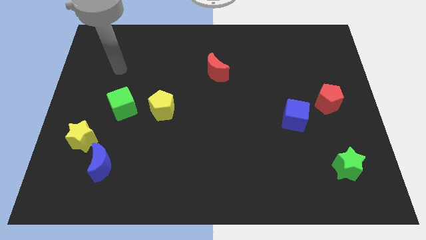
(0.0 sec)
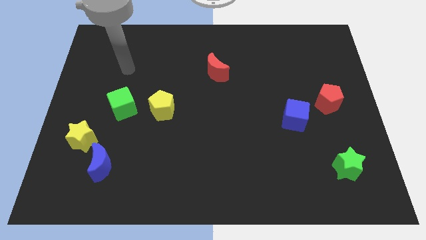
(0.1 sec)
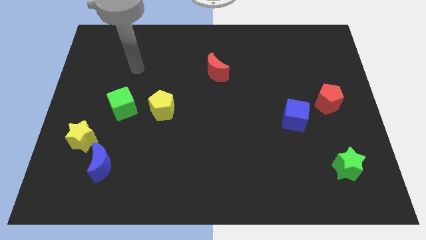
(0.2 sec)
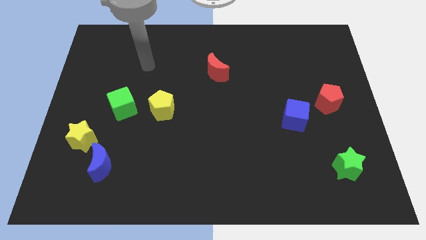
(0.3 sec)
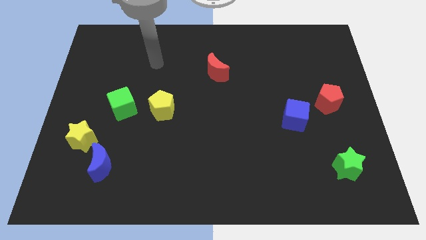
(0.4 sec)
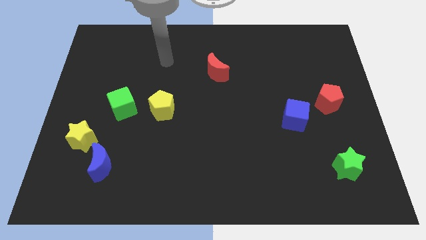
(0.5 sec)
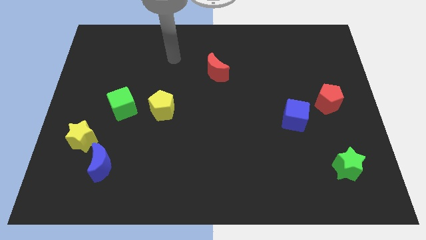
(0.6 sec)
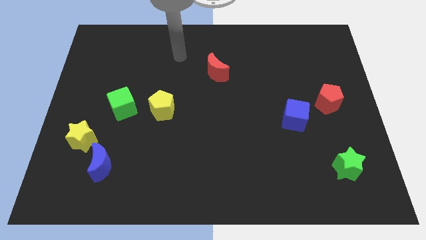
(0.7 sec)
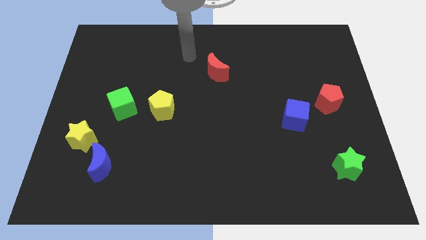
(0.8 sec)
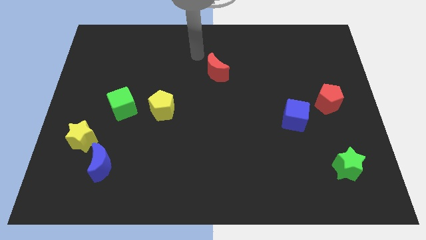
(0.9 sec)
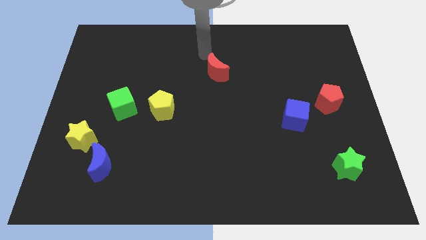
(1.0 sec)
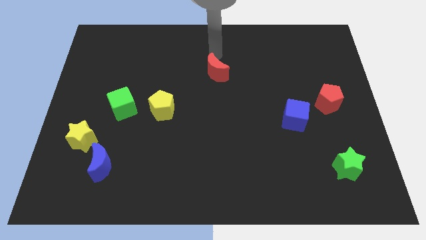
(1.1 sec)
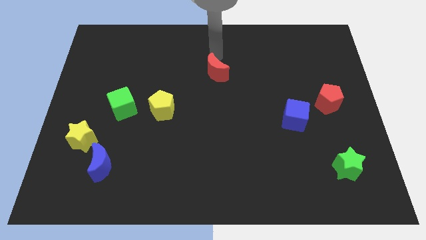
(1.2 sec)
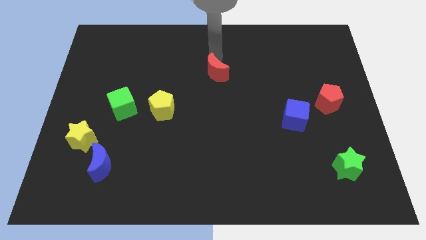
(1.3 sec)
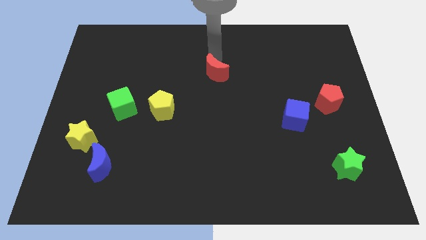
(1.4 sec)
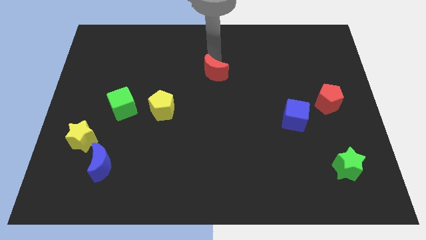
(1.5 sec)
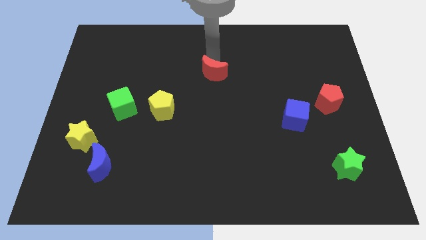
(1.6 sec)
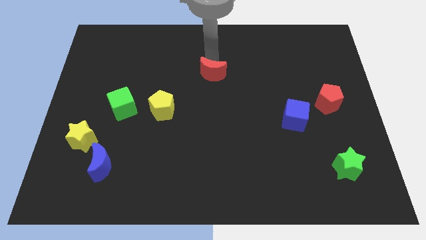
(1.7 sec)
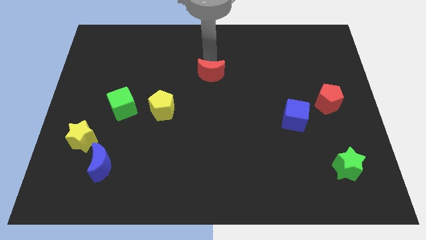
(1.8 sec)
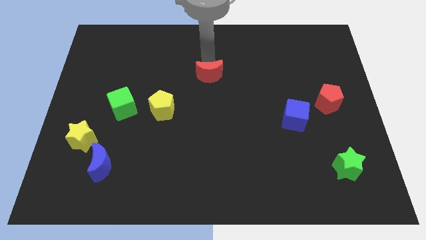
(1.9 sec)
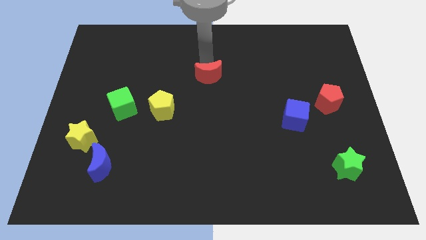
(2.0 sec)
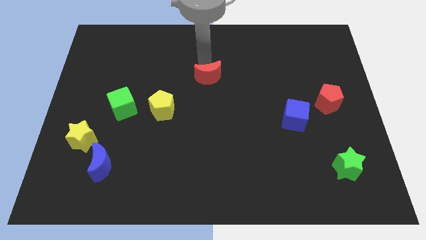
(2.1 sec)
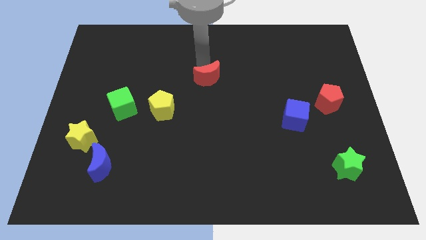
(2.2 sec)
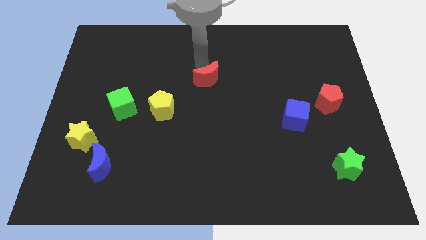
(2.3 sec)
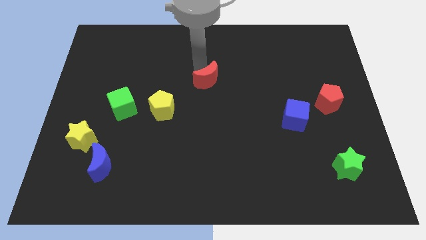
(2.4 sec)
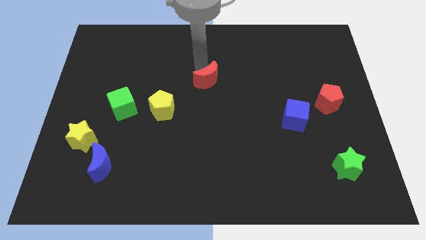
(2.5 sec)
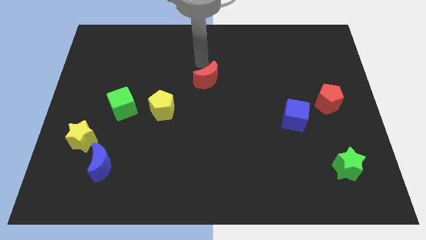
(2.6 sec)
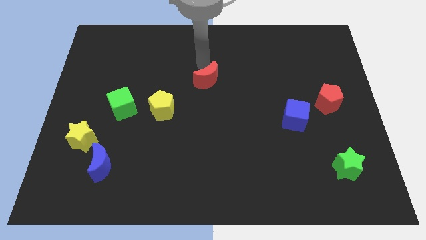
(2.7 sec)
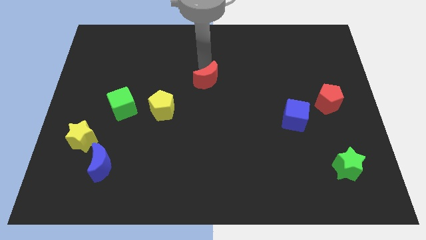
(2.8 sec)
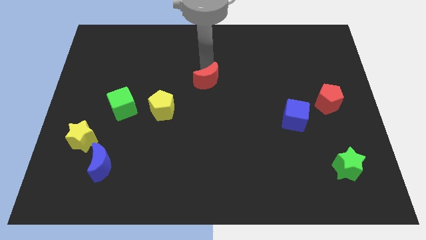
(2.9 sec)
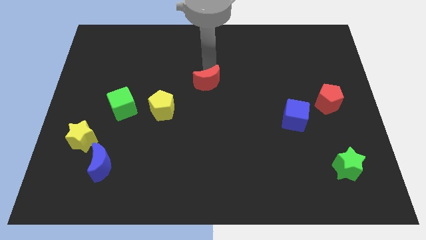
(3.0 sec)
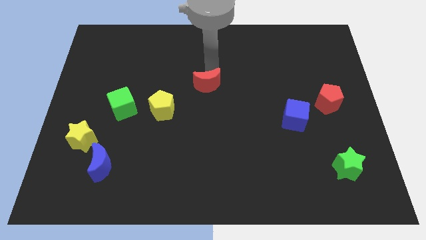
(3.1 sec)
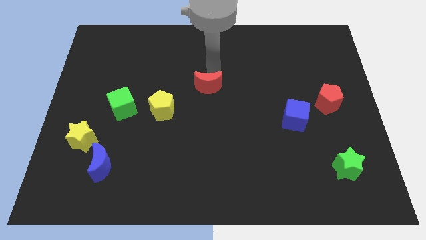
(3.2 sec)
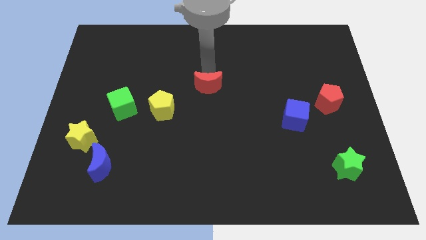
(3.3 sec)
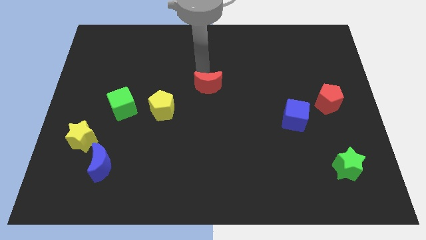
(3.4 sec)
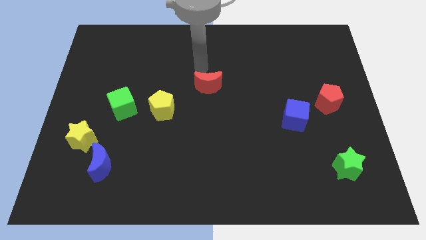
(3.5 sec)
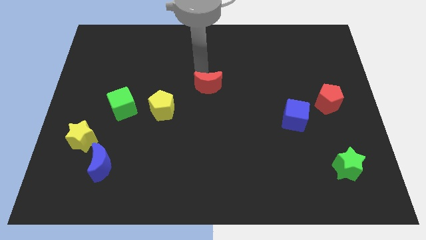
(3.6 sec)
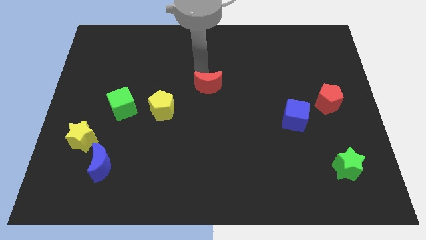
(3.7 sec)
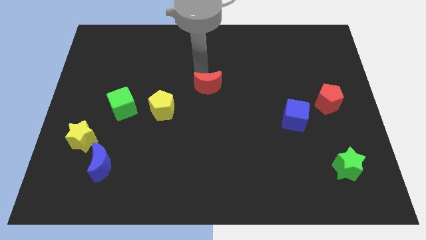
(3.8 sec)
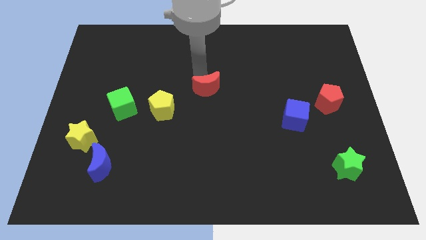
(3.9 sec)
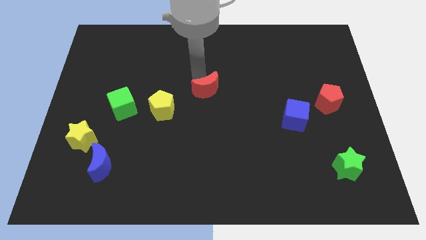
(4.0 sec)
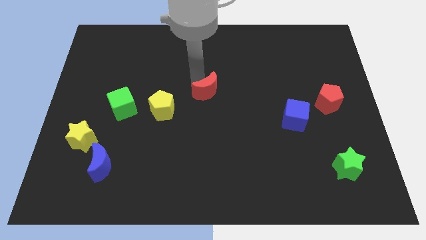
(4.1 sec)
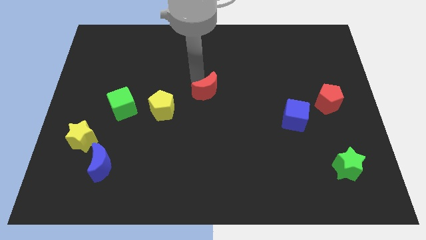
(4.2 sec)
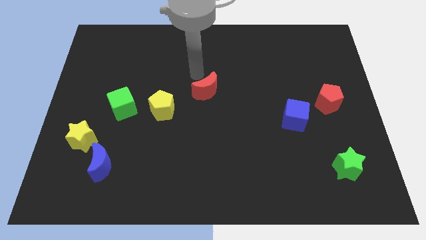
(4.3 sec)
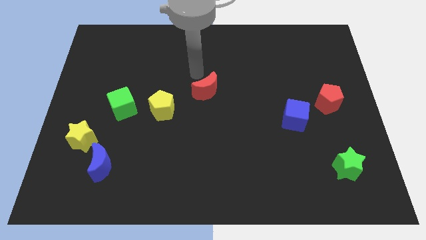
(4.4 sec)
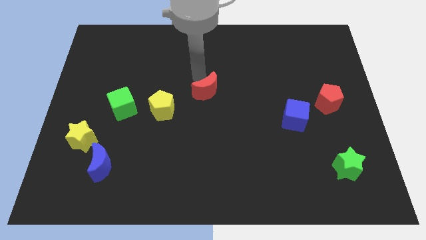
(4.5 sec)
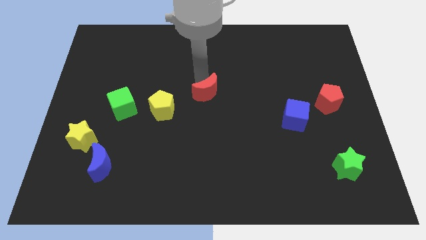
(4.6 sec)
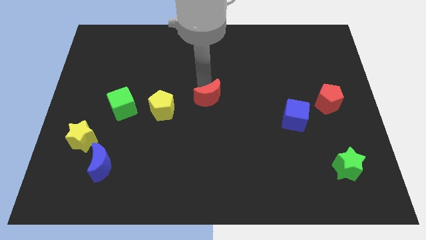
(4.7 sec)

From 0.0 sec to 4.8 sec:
move the red moon downwards a little bit

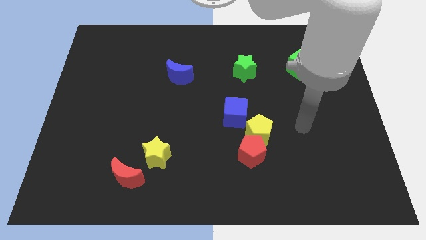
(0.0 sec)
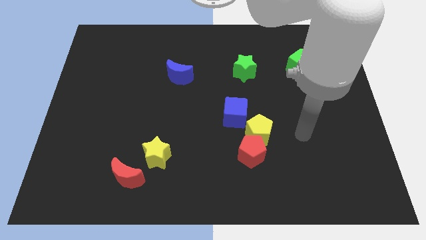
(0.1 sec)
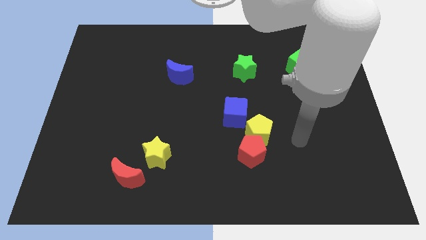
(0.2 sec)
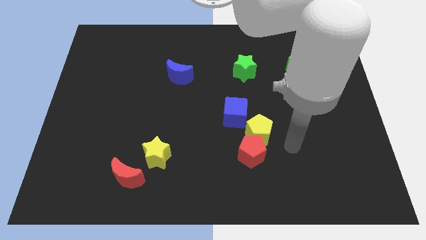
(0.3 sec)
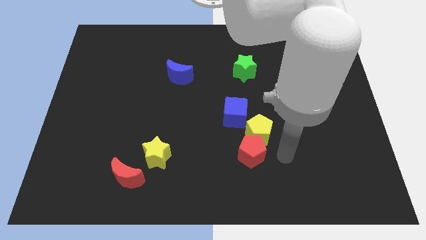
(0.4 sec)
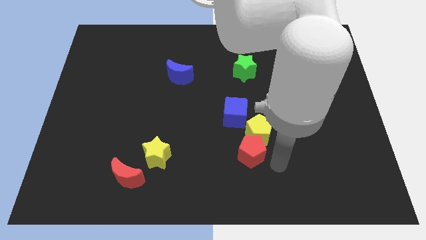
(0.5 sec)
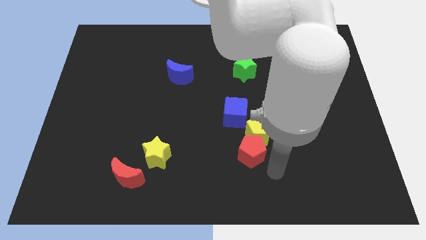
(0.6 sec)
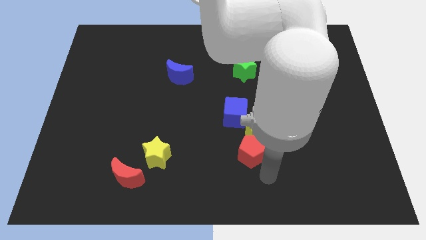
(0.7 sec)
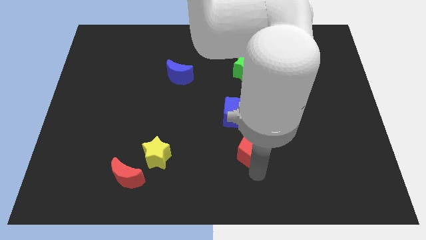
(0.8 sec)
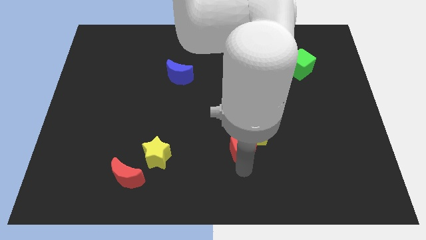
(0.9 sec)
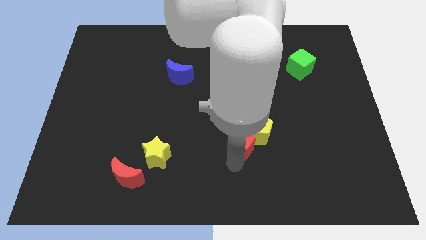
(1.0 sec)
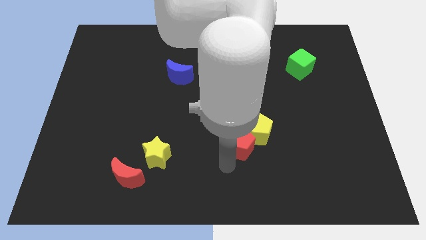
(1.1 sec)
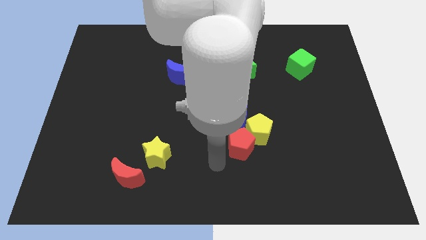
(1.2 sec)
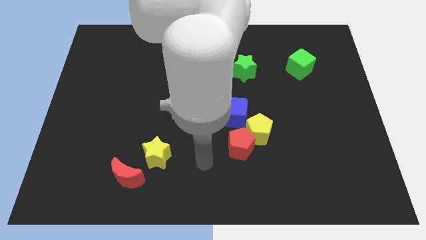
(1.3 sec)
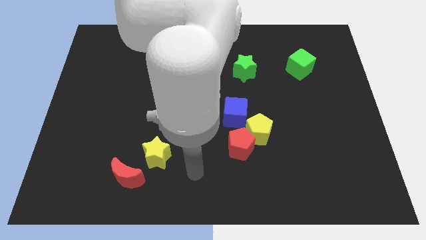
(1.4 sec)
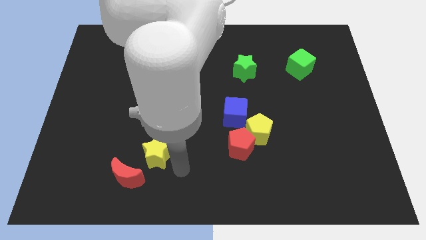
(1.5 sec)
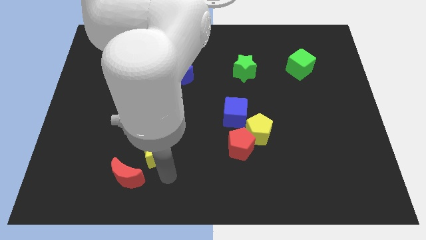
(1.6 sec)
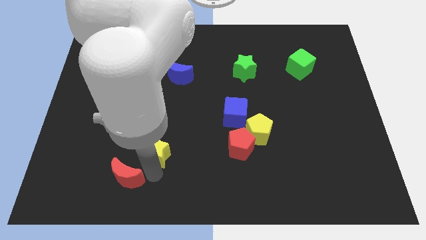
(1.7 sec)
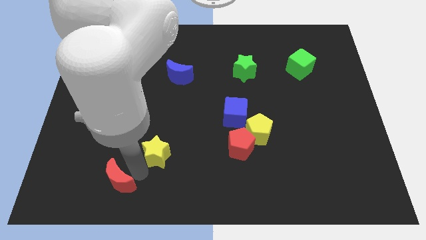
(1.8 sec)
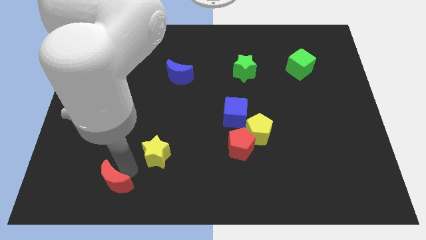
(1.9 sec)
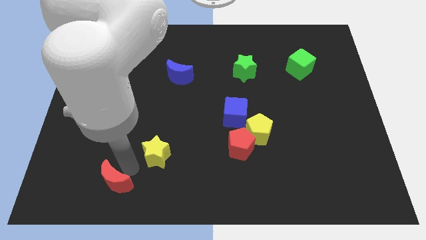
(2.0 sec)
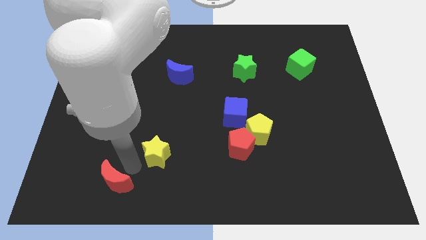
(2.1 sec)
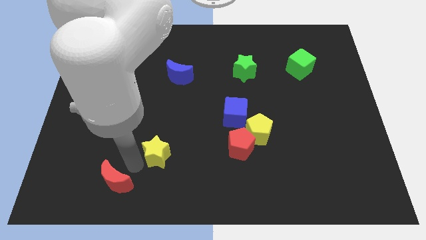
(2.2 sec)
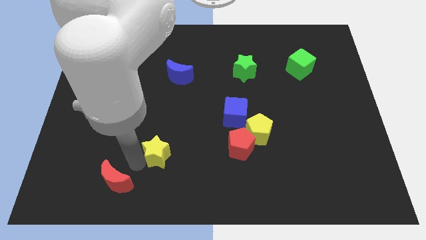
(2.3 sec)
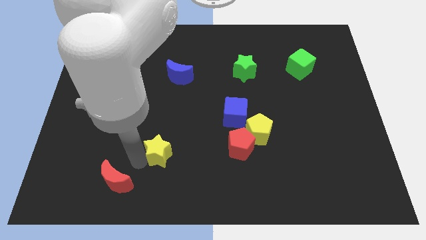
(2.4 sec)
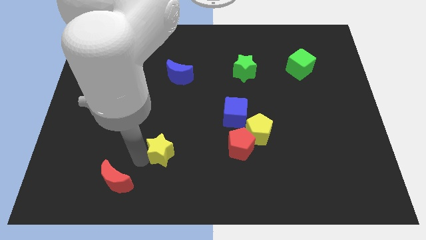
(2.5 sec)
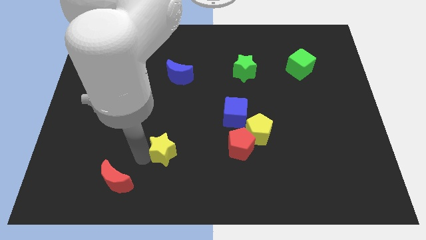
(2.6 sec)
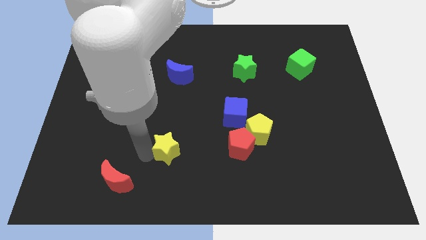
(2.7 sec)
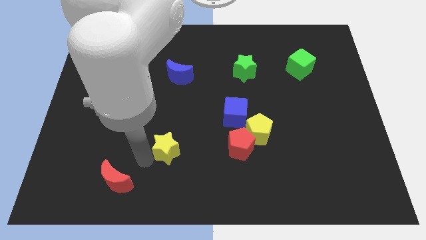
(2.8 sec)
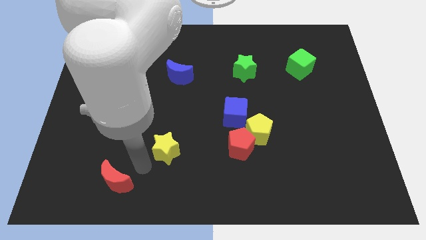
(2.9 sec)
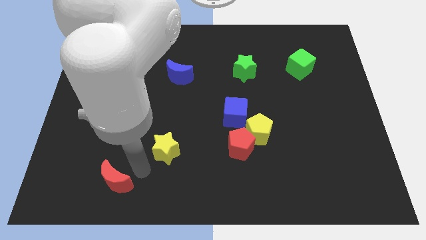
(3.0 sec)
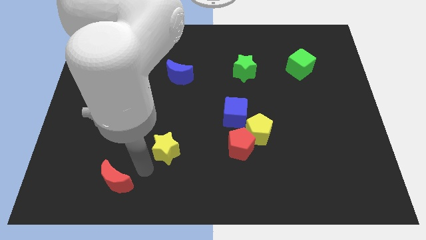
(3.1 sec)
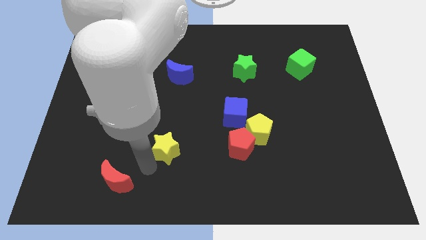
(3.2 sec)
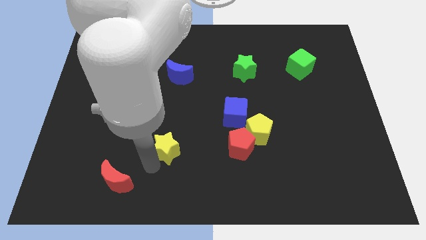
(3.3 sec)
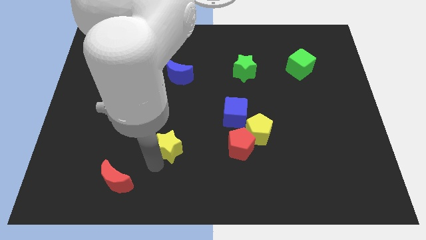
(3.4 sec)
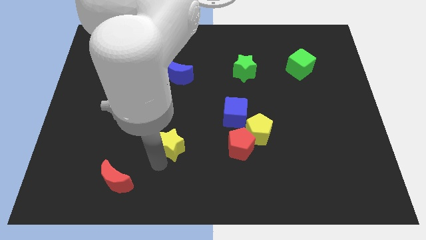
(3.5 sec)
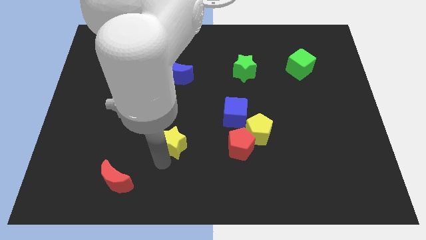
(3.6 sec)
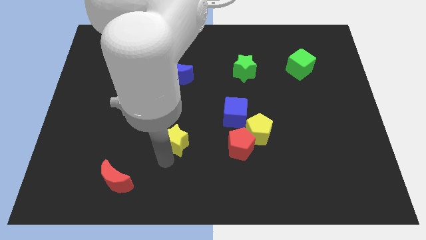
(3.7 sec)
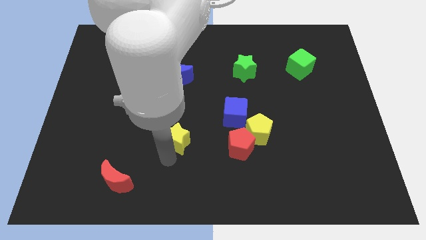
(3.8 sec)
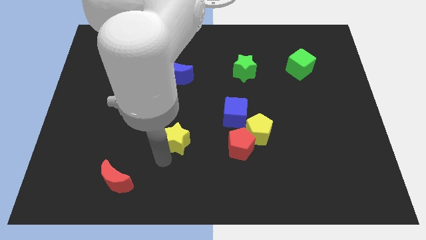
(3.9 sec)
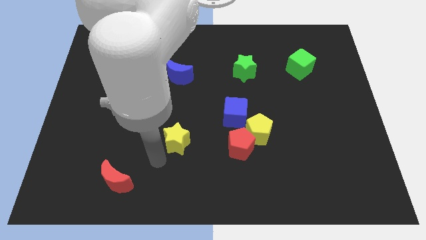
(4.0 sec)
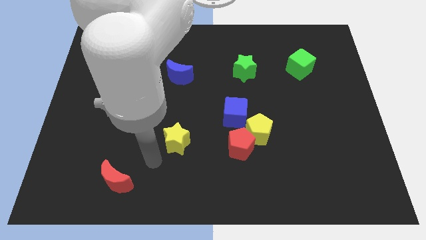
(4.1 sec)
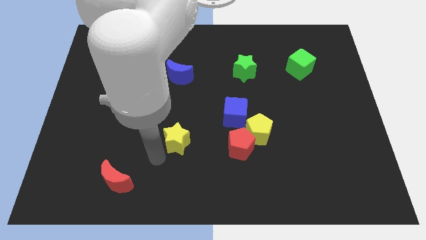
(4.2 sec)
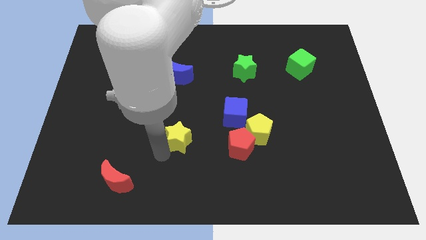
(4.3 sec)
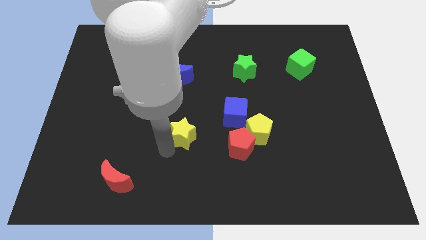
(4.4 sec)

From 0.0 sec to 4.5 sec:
slightly push the yellow star upwards and to the right
